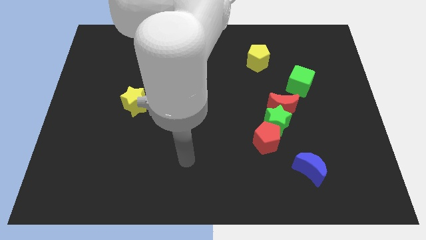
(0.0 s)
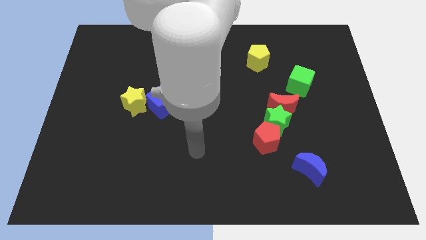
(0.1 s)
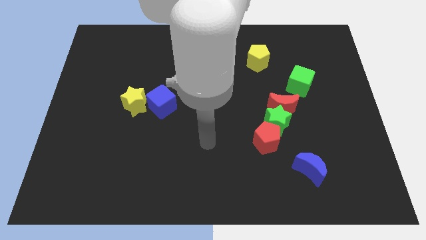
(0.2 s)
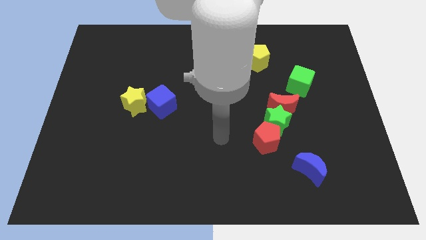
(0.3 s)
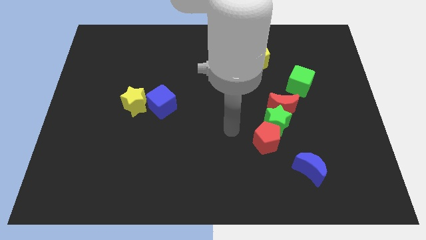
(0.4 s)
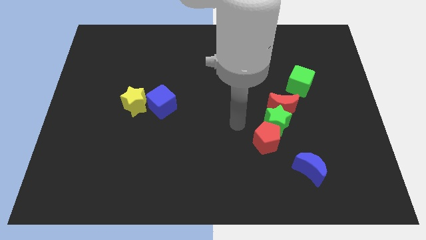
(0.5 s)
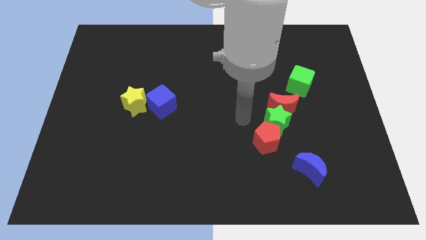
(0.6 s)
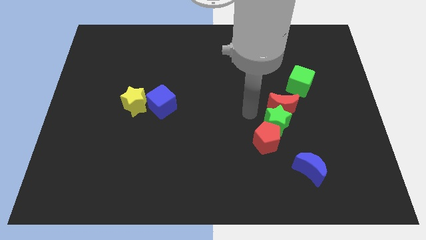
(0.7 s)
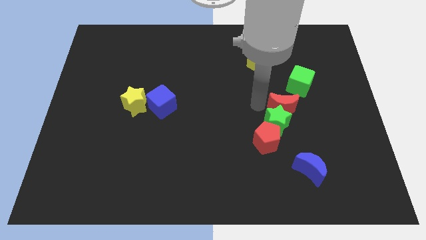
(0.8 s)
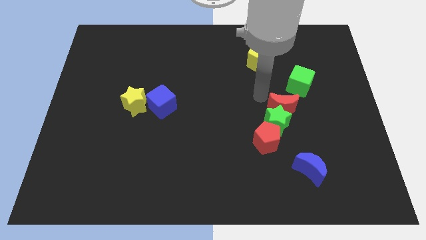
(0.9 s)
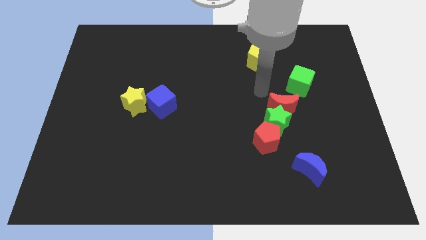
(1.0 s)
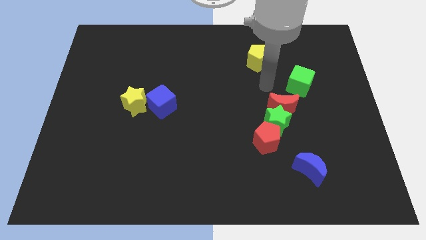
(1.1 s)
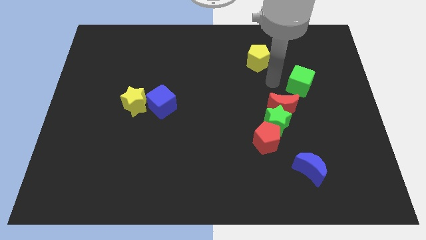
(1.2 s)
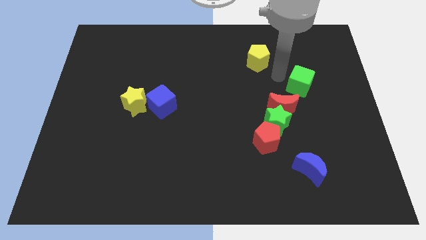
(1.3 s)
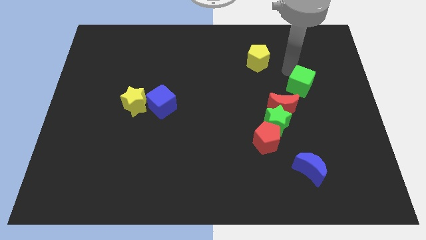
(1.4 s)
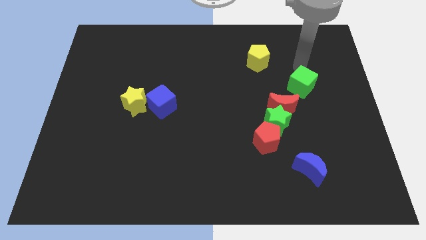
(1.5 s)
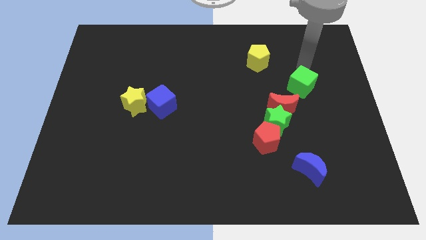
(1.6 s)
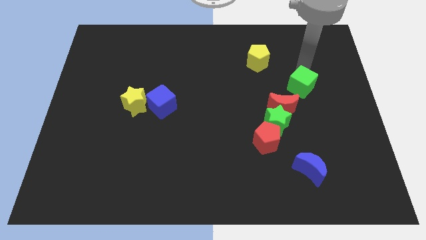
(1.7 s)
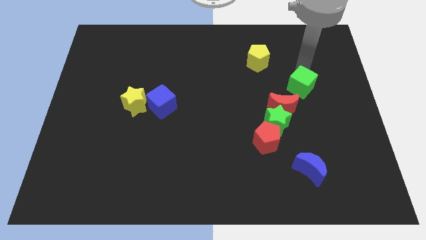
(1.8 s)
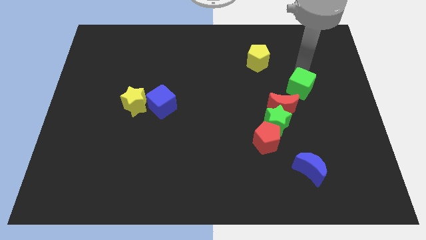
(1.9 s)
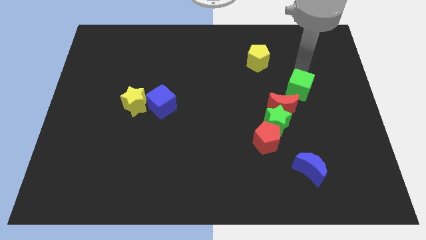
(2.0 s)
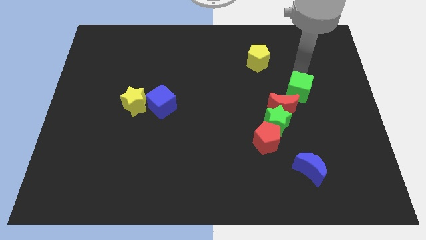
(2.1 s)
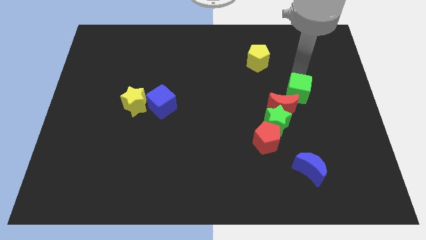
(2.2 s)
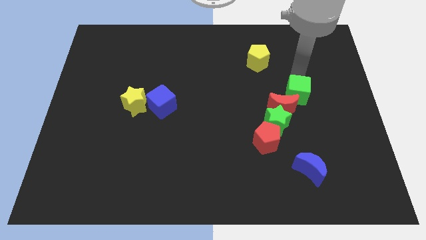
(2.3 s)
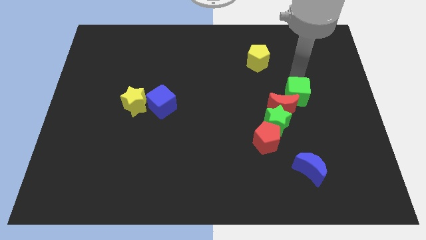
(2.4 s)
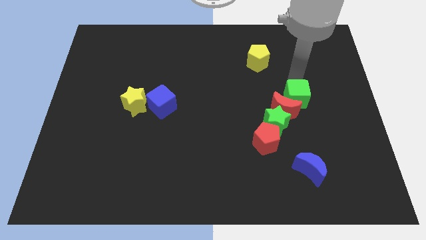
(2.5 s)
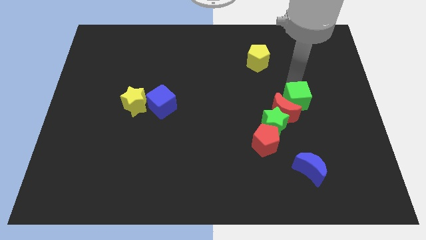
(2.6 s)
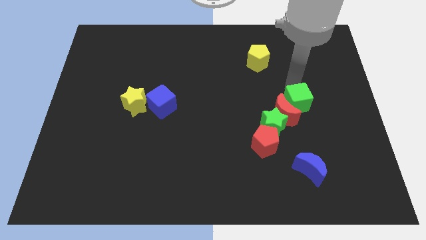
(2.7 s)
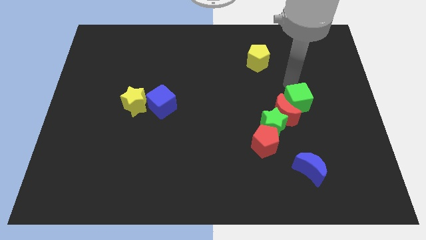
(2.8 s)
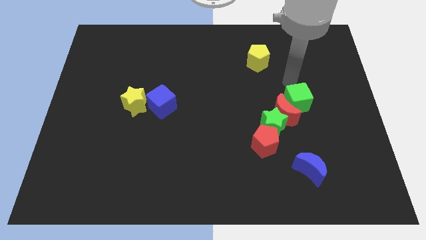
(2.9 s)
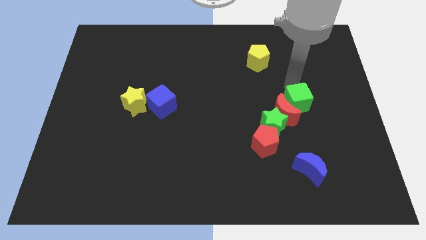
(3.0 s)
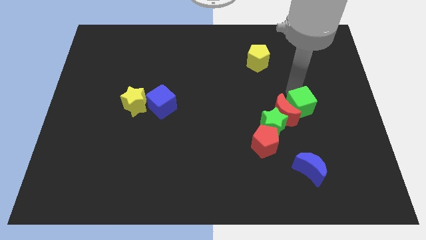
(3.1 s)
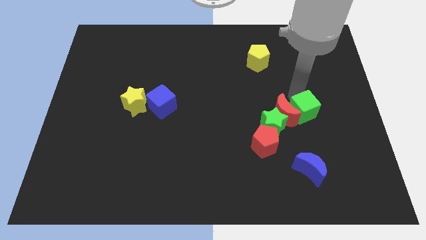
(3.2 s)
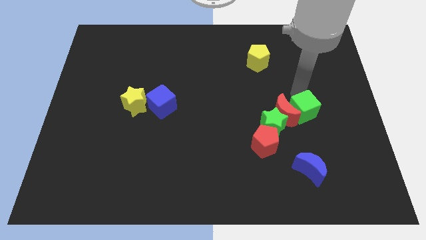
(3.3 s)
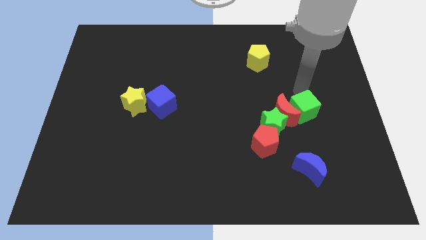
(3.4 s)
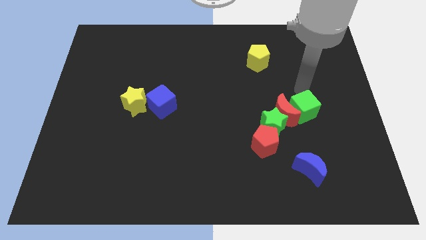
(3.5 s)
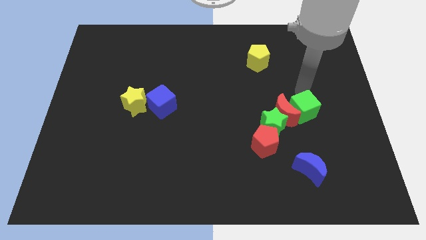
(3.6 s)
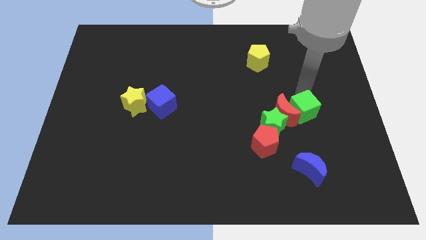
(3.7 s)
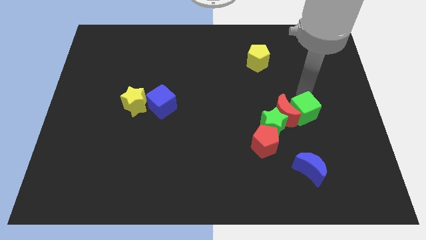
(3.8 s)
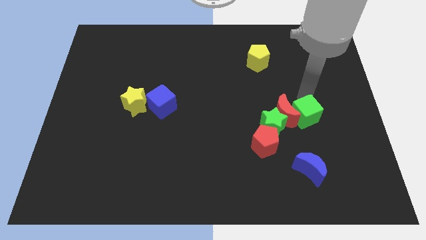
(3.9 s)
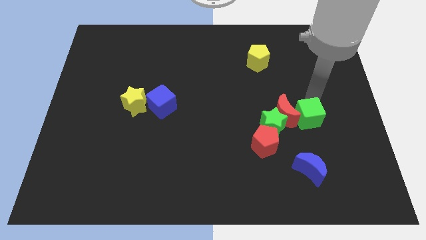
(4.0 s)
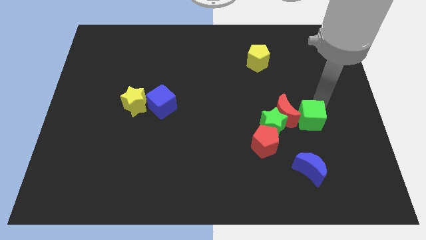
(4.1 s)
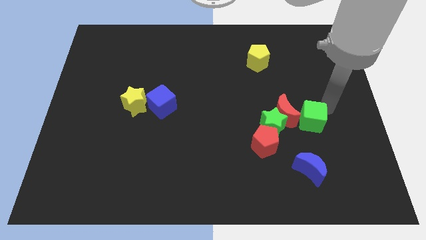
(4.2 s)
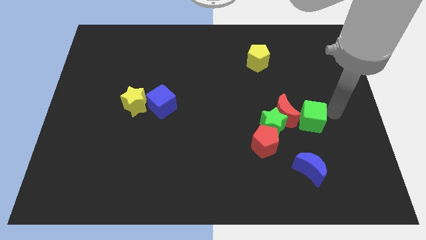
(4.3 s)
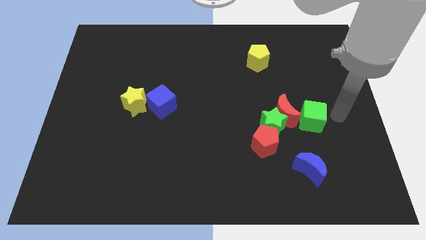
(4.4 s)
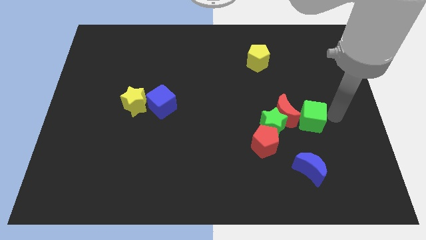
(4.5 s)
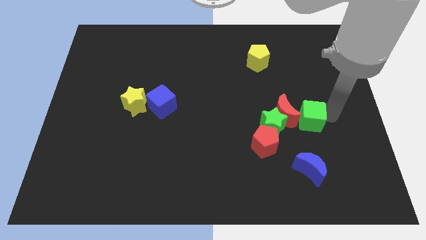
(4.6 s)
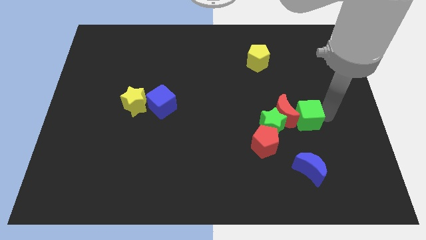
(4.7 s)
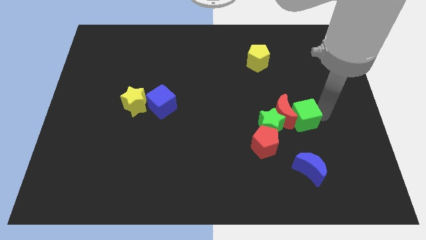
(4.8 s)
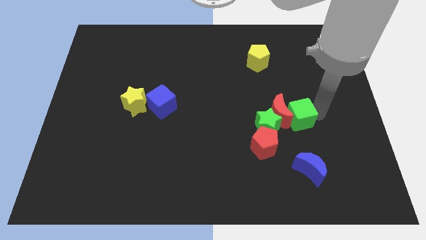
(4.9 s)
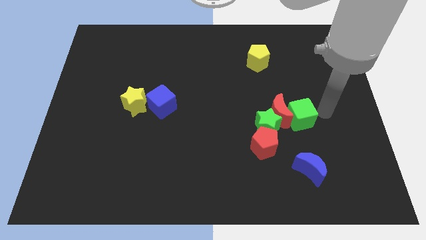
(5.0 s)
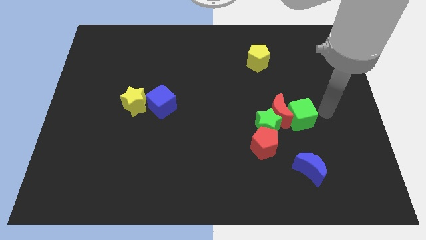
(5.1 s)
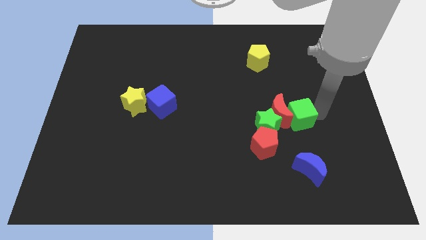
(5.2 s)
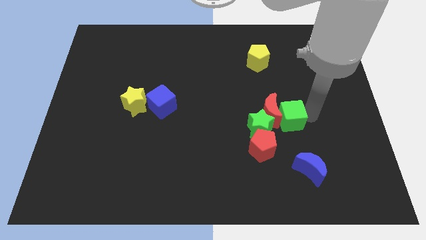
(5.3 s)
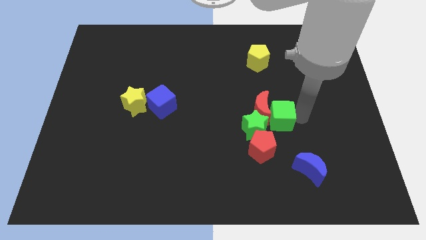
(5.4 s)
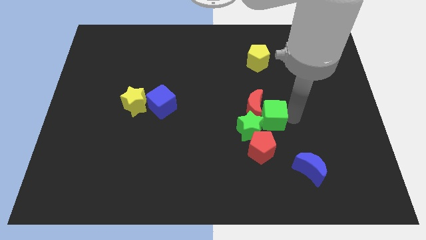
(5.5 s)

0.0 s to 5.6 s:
slide the green cube close to the green star
